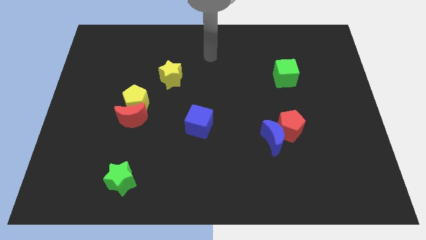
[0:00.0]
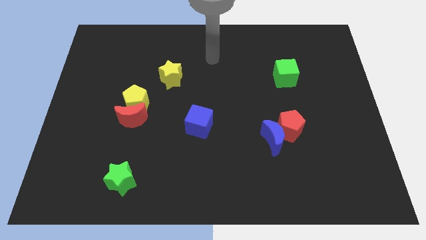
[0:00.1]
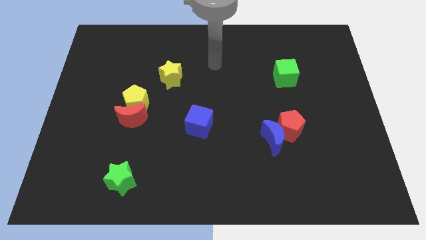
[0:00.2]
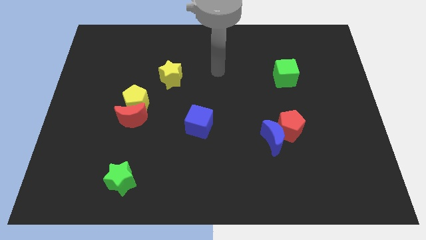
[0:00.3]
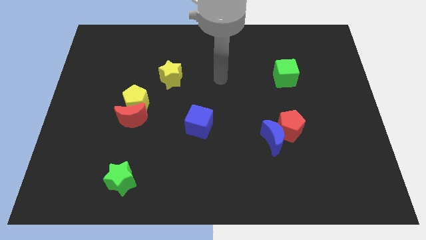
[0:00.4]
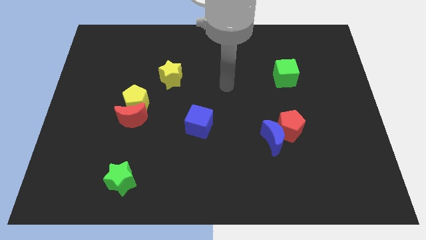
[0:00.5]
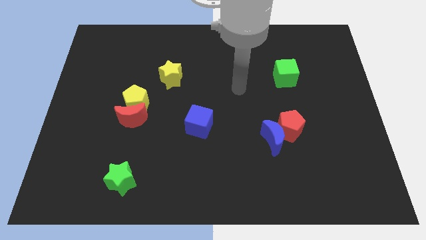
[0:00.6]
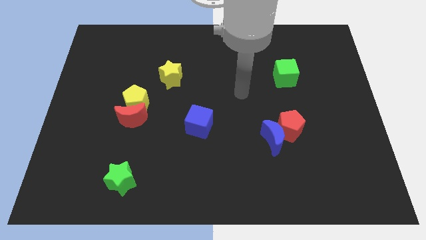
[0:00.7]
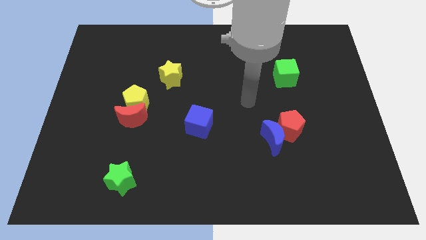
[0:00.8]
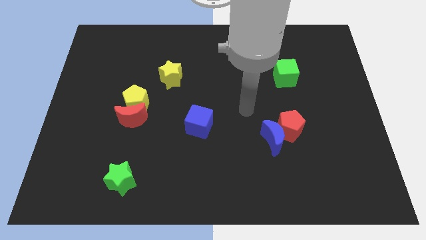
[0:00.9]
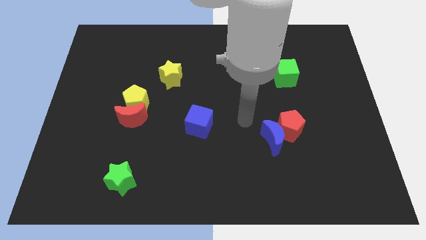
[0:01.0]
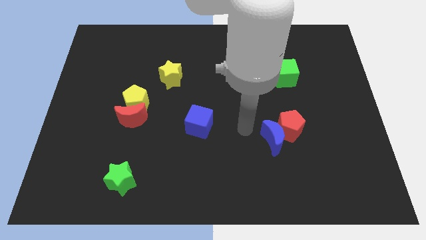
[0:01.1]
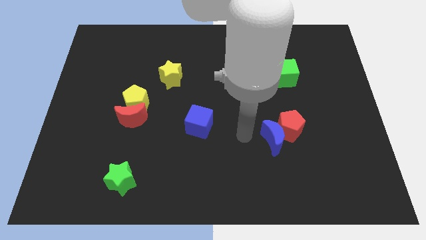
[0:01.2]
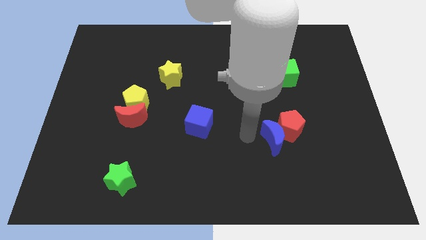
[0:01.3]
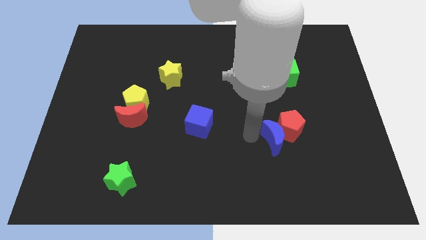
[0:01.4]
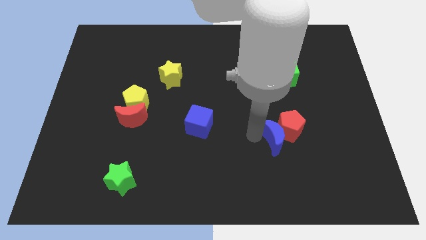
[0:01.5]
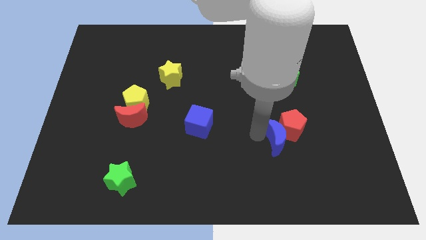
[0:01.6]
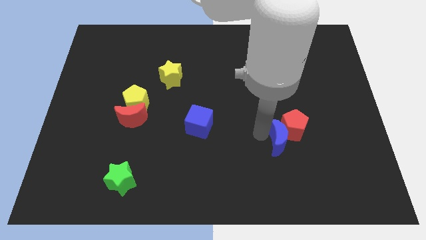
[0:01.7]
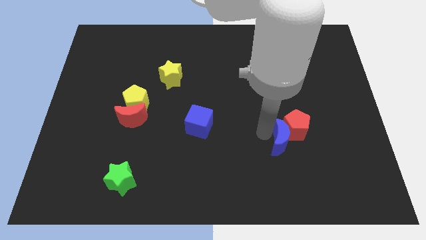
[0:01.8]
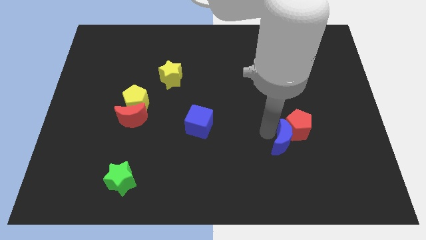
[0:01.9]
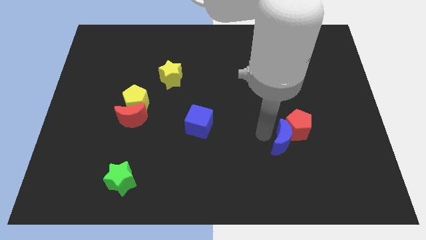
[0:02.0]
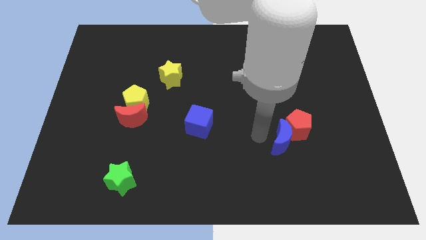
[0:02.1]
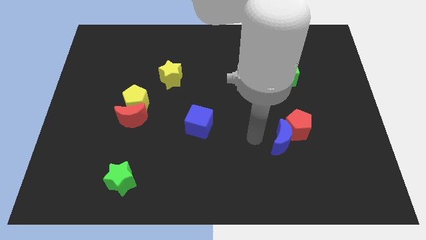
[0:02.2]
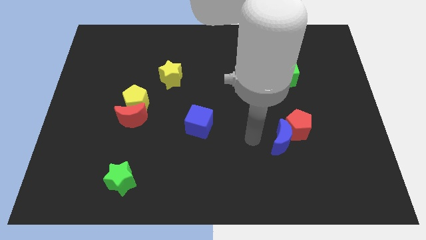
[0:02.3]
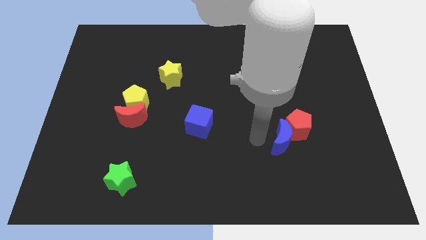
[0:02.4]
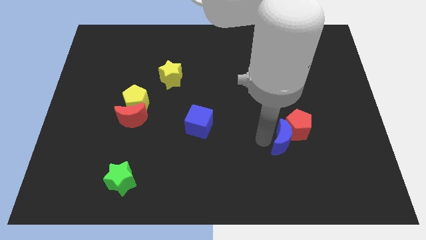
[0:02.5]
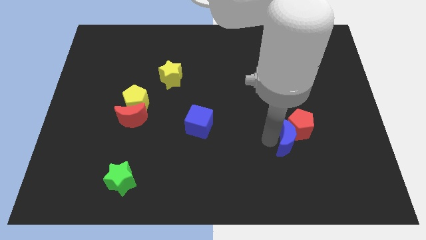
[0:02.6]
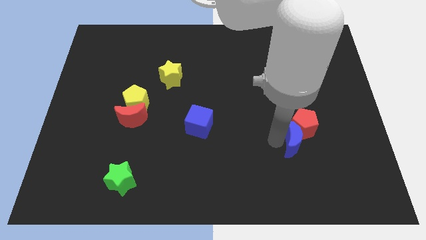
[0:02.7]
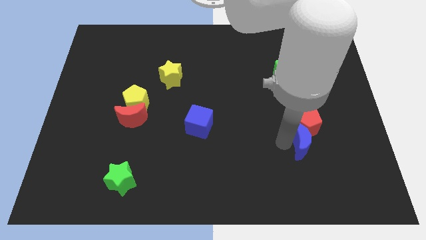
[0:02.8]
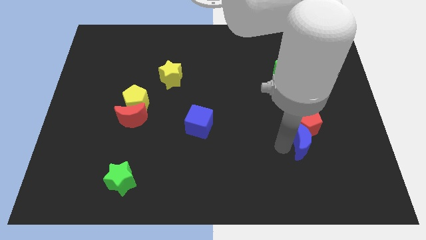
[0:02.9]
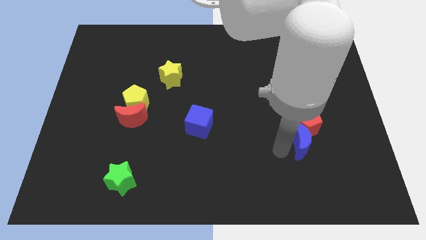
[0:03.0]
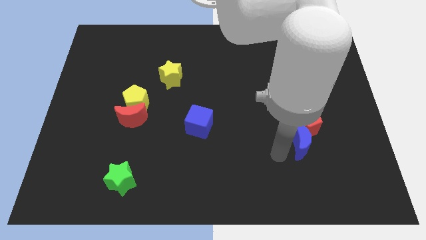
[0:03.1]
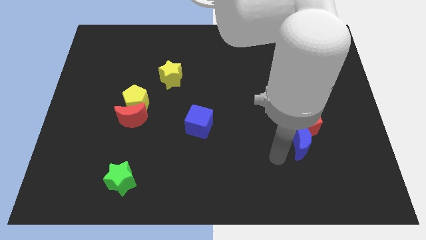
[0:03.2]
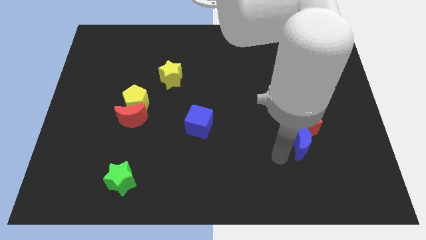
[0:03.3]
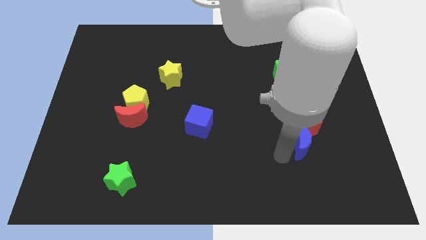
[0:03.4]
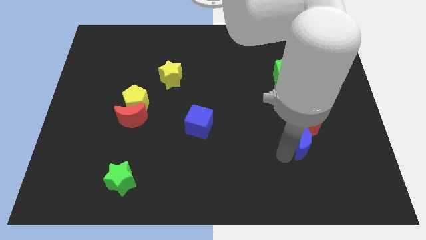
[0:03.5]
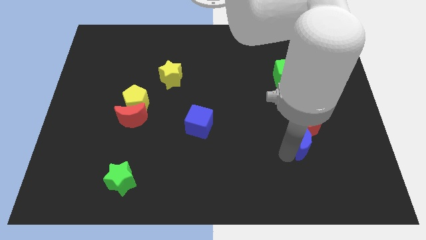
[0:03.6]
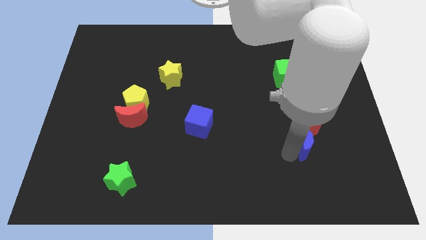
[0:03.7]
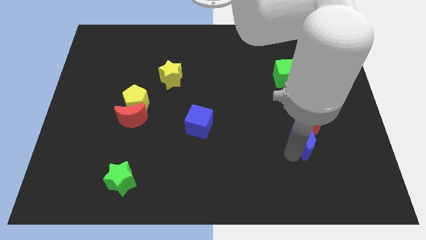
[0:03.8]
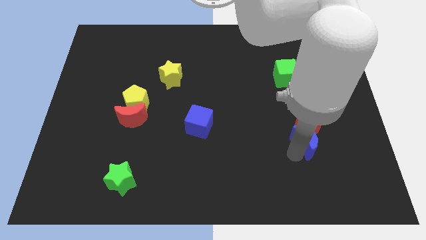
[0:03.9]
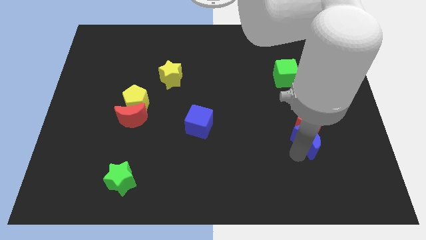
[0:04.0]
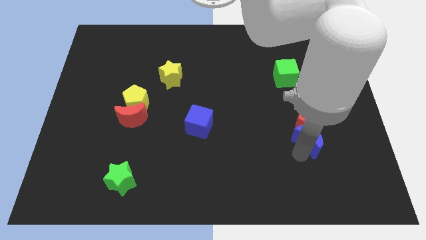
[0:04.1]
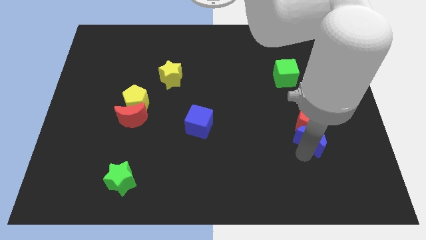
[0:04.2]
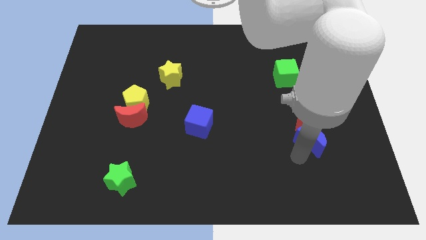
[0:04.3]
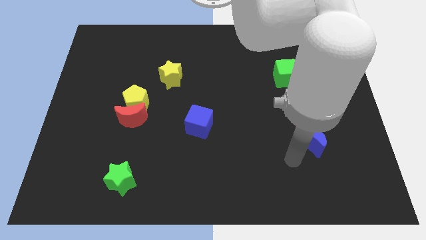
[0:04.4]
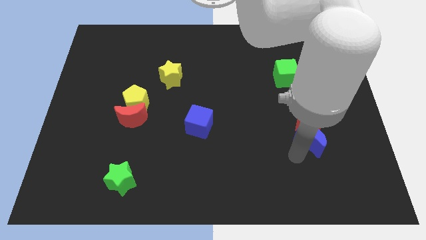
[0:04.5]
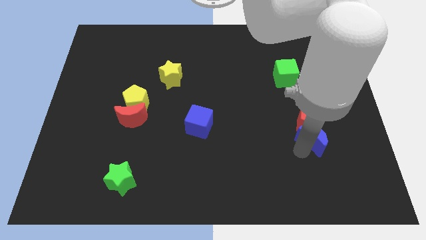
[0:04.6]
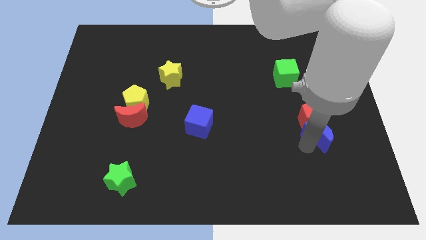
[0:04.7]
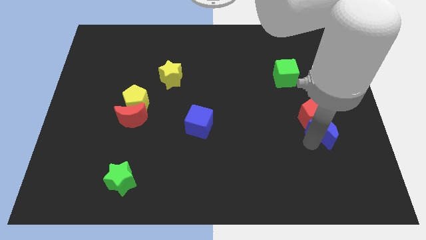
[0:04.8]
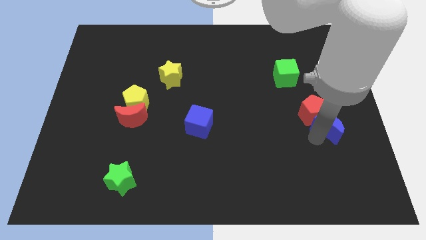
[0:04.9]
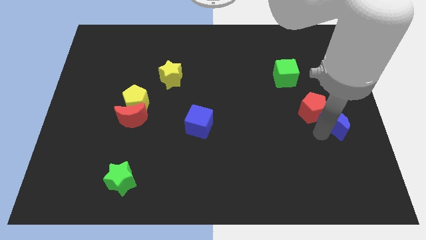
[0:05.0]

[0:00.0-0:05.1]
move the blue moon to the right side of the board

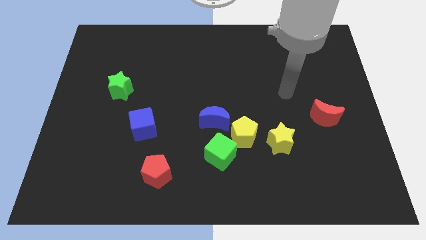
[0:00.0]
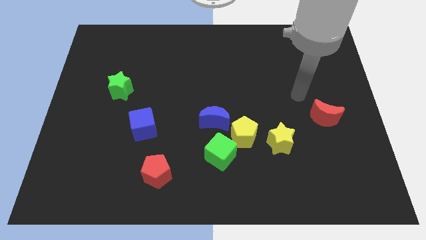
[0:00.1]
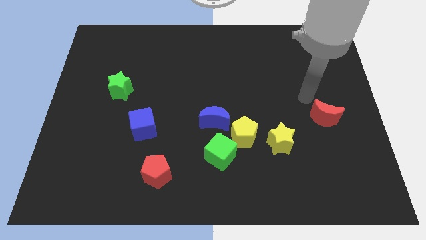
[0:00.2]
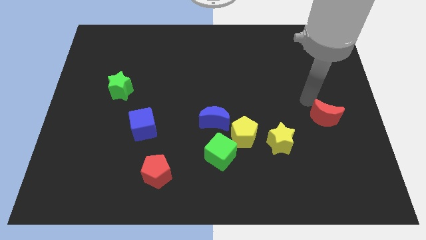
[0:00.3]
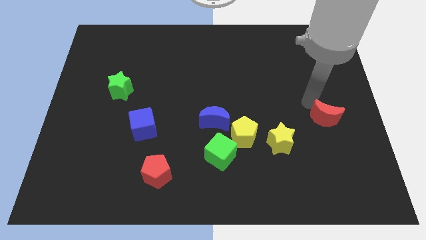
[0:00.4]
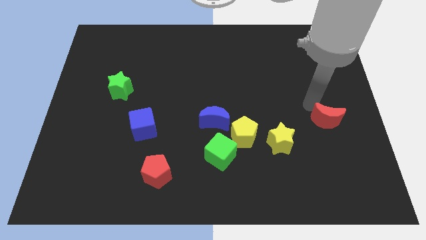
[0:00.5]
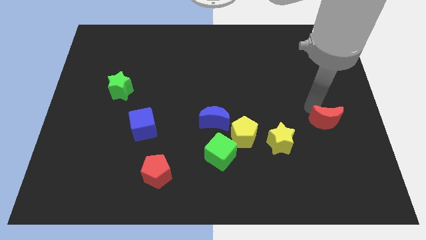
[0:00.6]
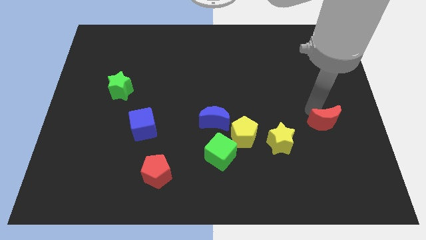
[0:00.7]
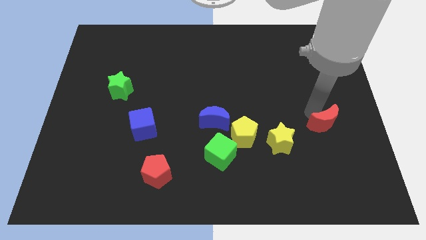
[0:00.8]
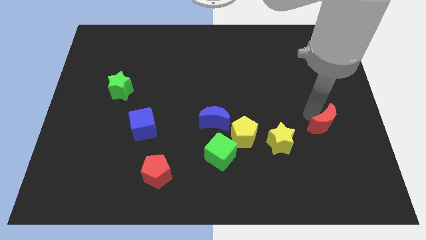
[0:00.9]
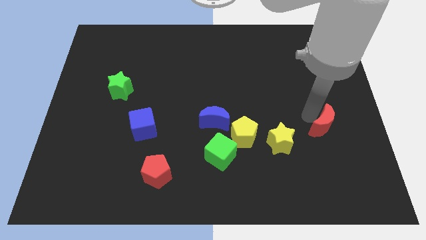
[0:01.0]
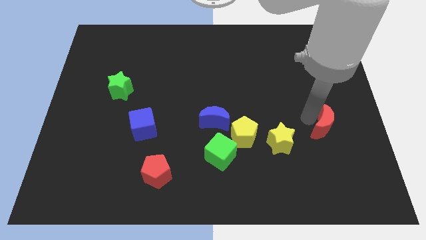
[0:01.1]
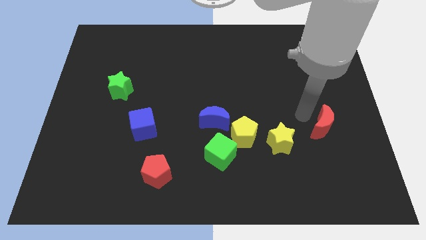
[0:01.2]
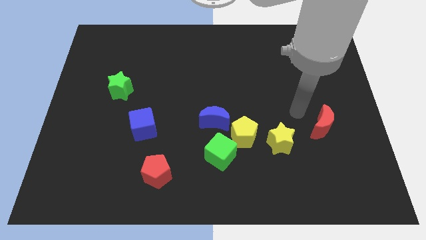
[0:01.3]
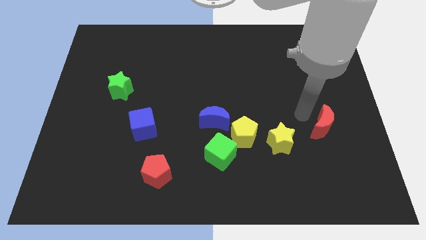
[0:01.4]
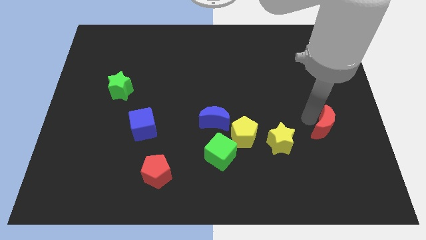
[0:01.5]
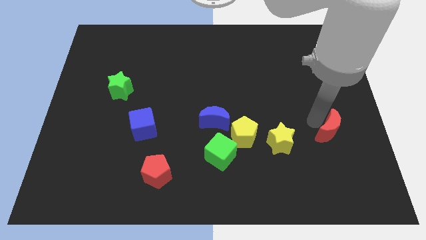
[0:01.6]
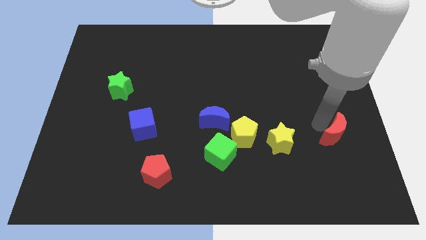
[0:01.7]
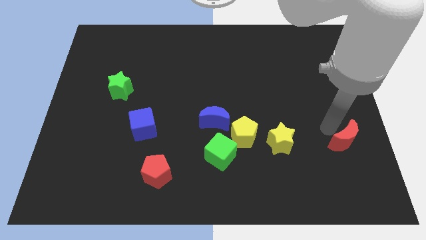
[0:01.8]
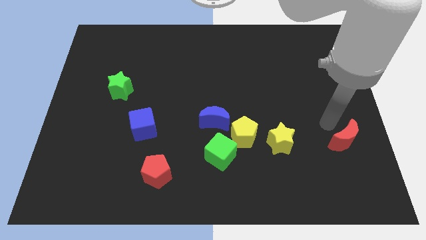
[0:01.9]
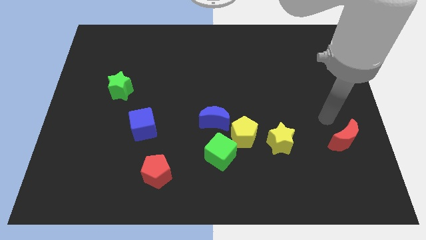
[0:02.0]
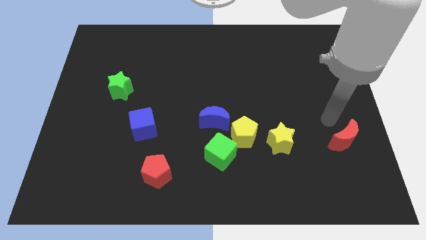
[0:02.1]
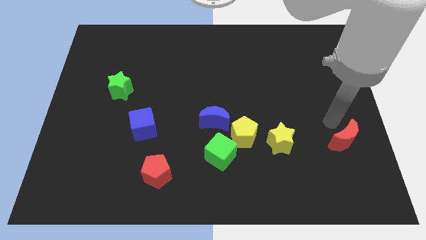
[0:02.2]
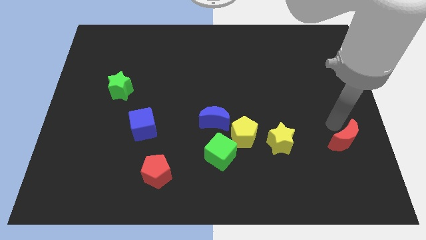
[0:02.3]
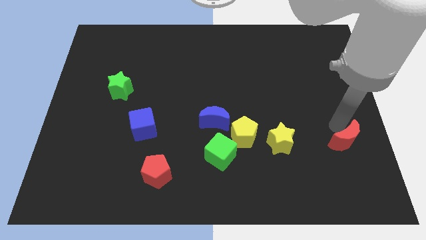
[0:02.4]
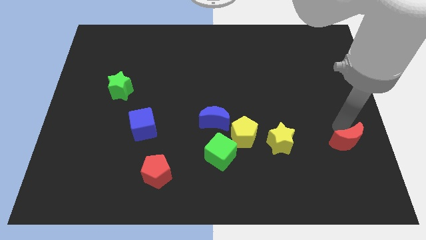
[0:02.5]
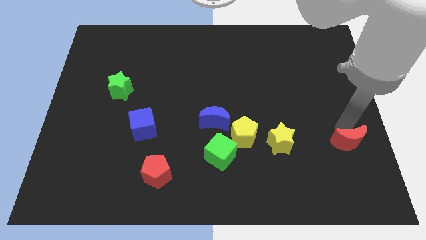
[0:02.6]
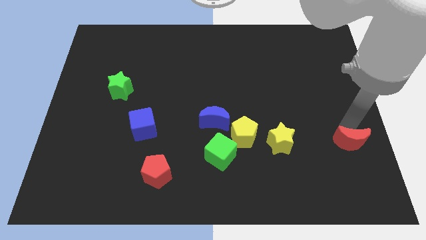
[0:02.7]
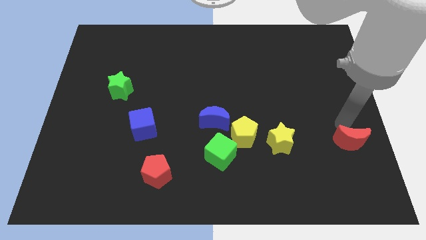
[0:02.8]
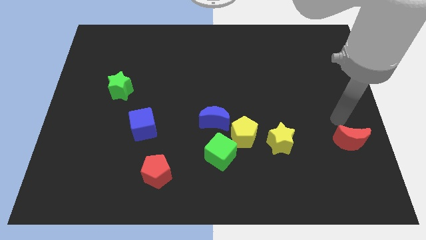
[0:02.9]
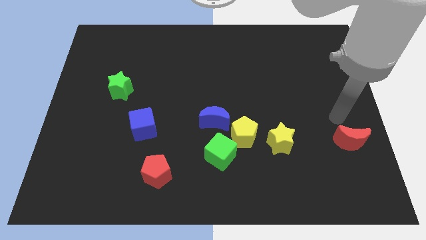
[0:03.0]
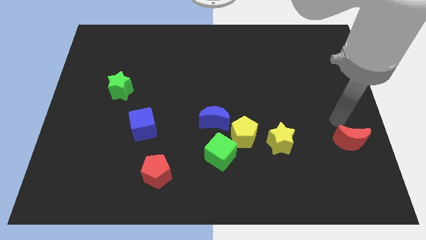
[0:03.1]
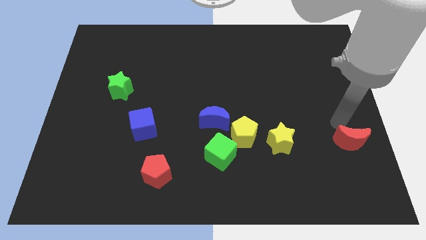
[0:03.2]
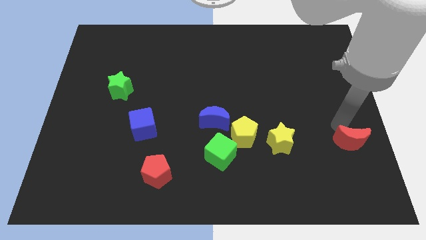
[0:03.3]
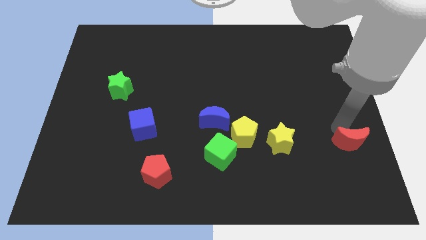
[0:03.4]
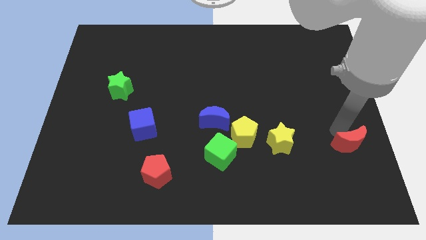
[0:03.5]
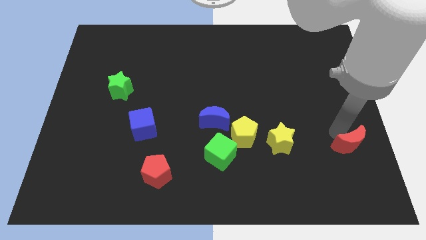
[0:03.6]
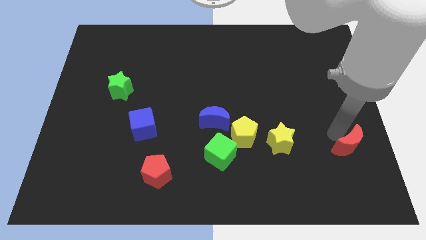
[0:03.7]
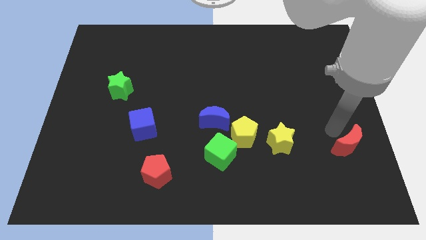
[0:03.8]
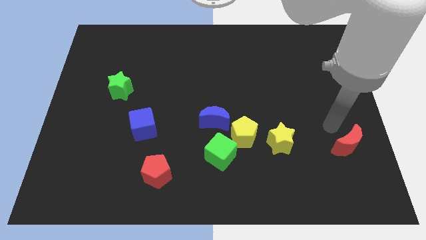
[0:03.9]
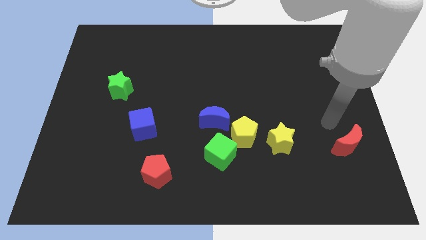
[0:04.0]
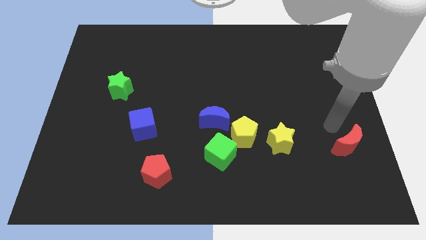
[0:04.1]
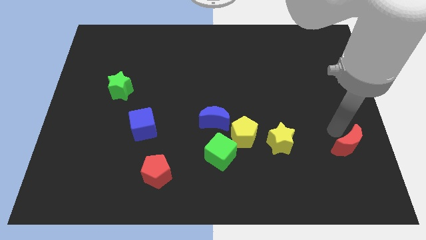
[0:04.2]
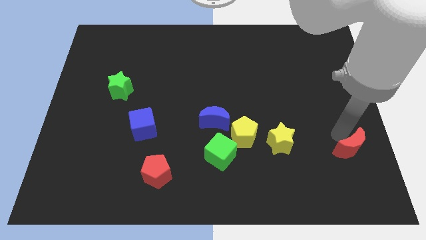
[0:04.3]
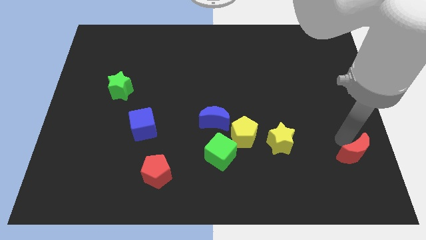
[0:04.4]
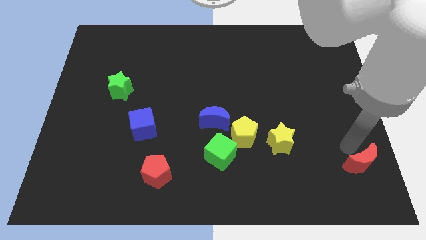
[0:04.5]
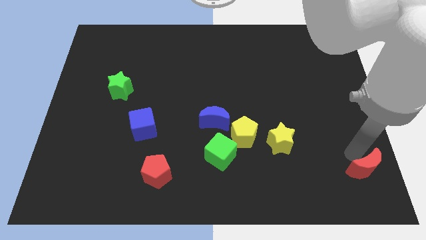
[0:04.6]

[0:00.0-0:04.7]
put the red moon to the bottom right
